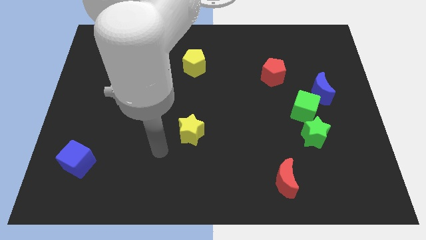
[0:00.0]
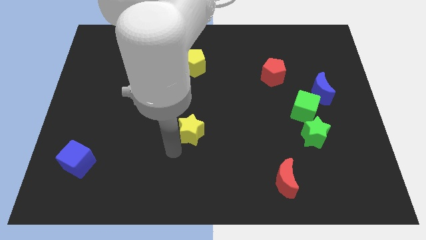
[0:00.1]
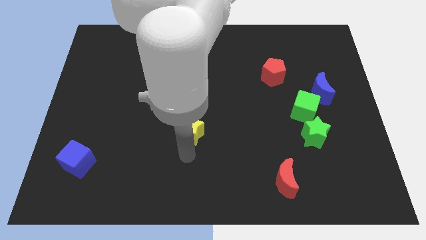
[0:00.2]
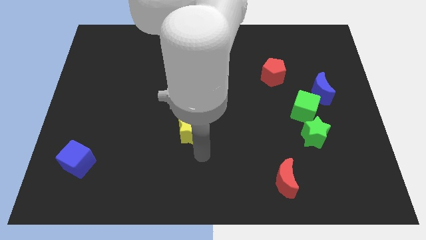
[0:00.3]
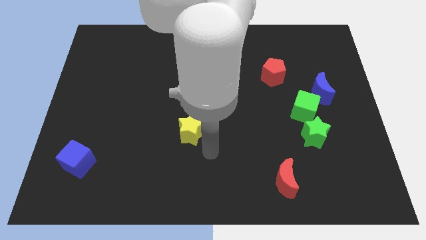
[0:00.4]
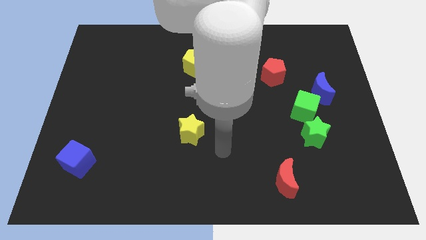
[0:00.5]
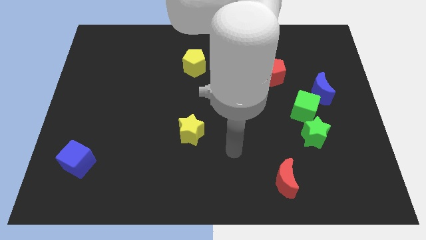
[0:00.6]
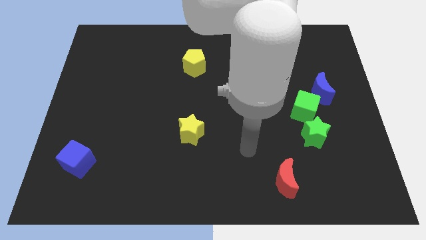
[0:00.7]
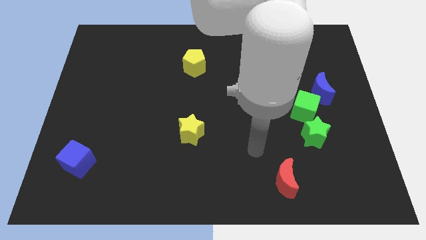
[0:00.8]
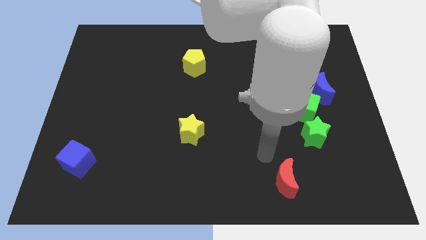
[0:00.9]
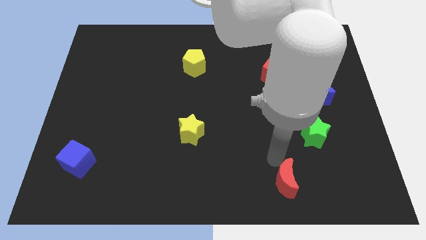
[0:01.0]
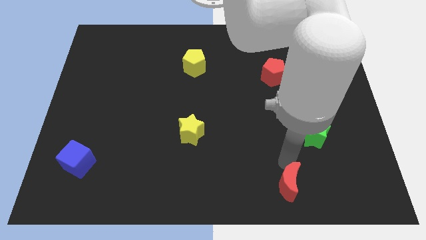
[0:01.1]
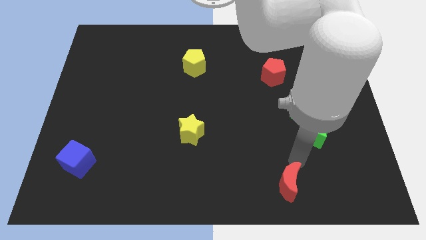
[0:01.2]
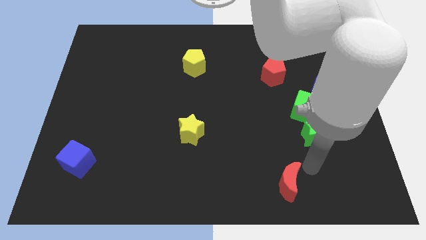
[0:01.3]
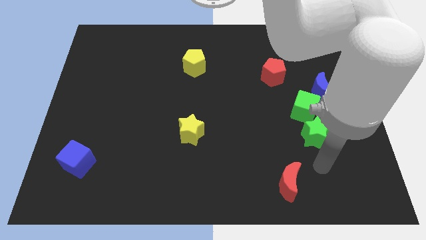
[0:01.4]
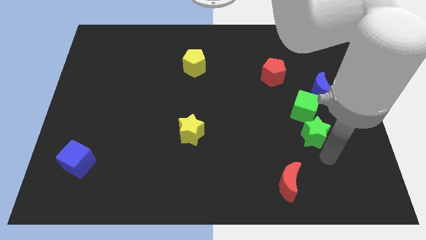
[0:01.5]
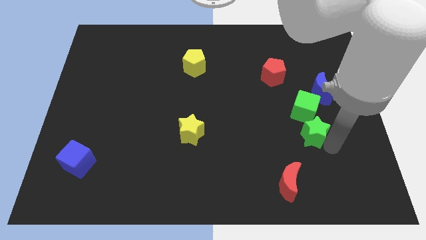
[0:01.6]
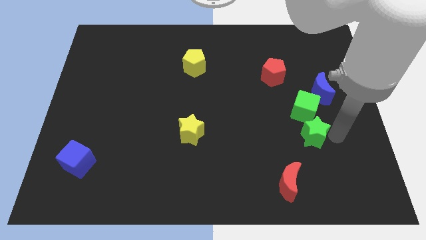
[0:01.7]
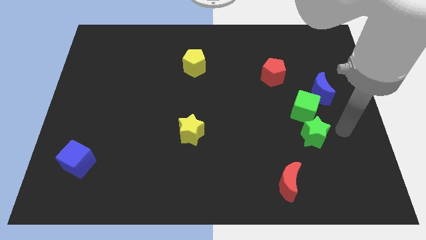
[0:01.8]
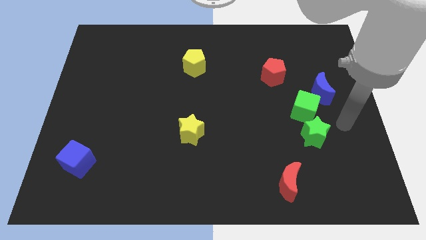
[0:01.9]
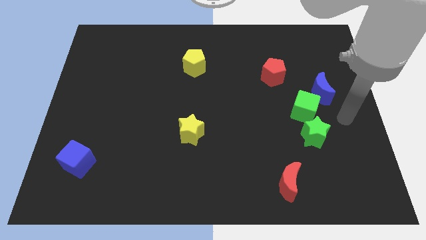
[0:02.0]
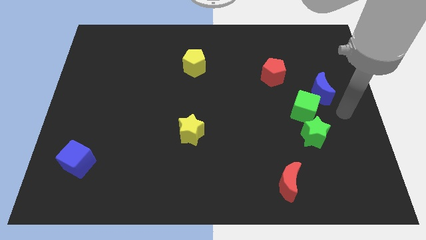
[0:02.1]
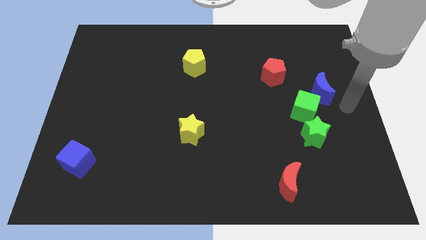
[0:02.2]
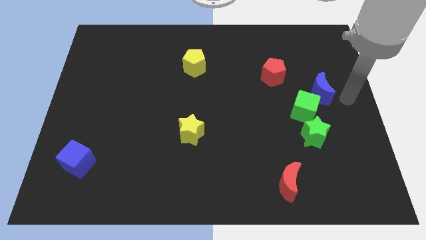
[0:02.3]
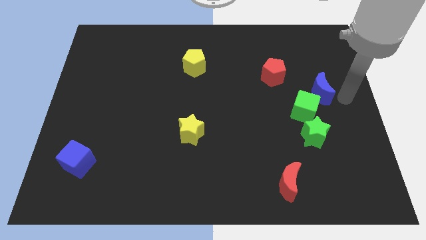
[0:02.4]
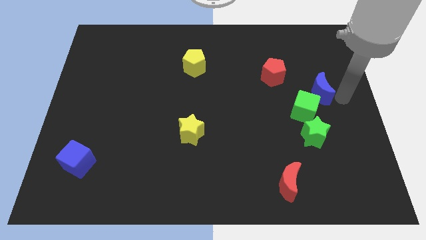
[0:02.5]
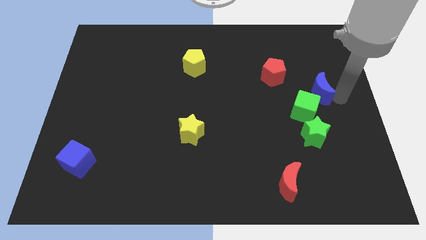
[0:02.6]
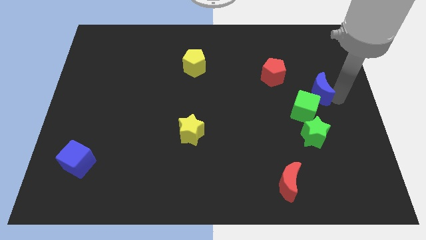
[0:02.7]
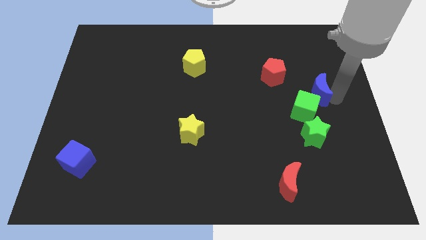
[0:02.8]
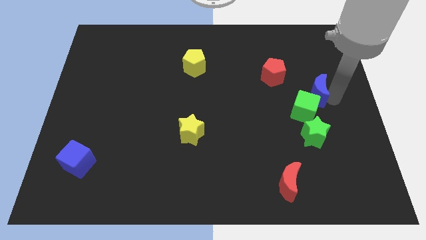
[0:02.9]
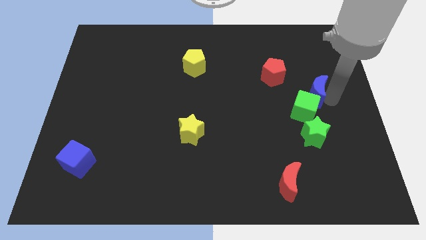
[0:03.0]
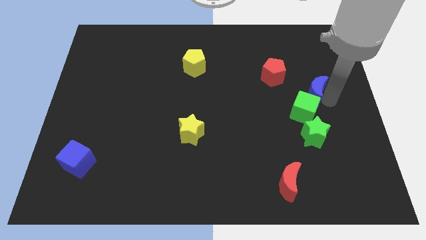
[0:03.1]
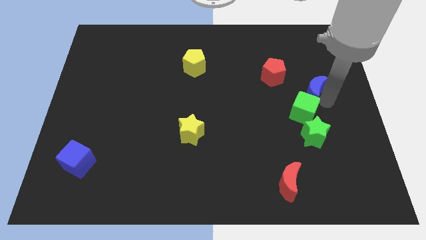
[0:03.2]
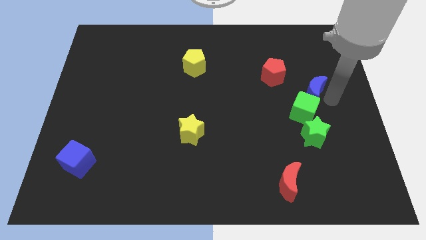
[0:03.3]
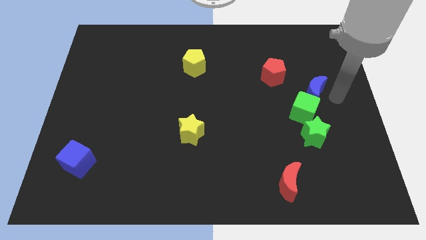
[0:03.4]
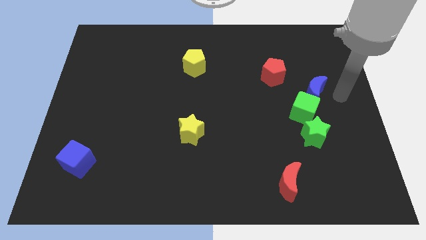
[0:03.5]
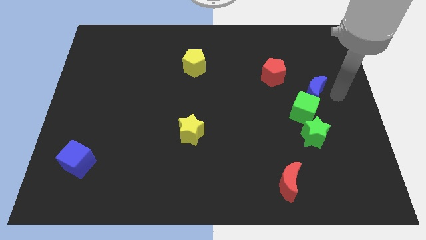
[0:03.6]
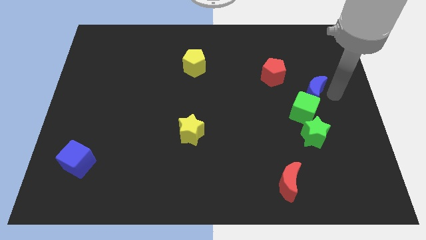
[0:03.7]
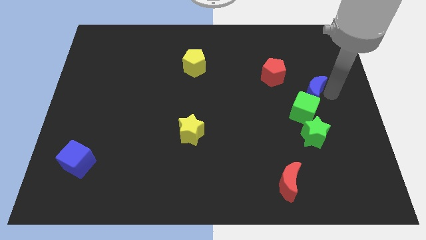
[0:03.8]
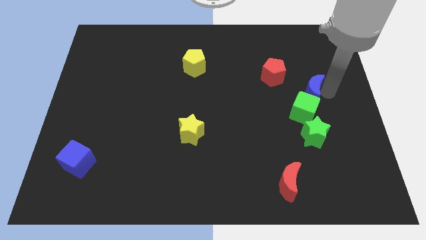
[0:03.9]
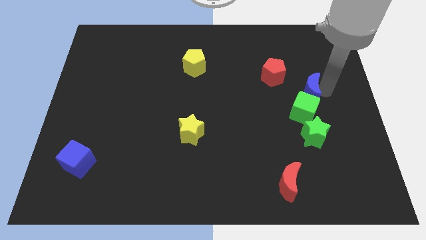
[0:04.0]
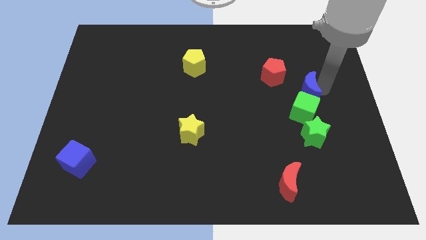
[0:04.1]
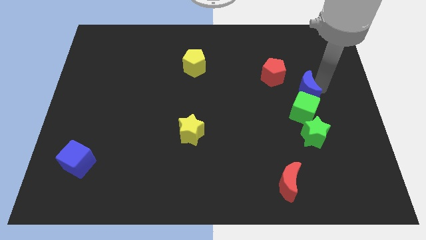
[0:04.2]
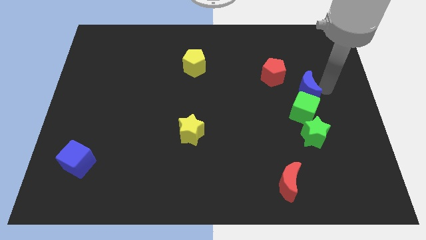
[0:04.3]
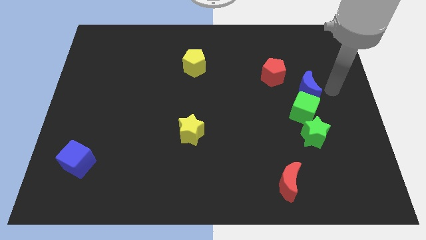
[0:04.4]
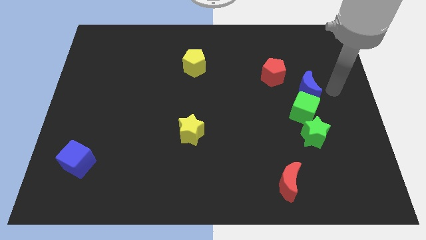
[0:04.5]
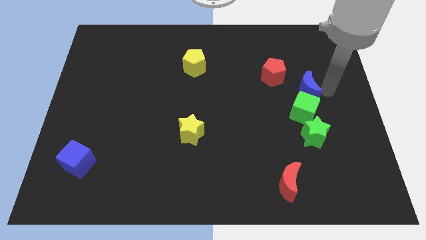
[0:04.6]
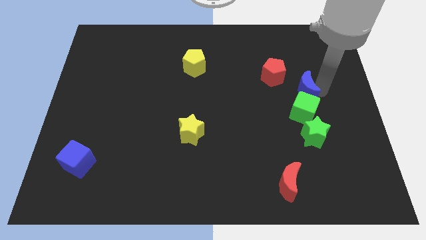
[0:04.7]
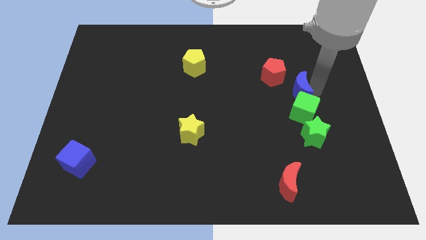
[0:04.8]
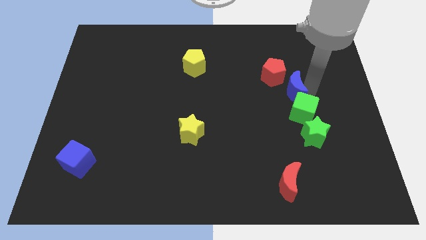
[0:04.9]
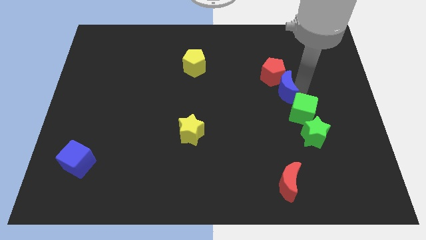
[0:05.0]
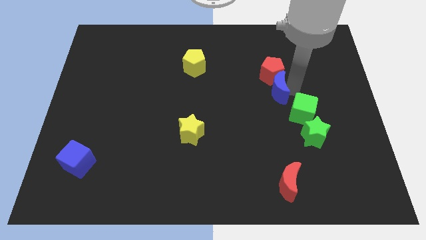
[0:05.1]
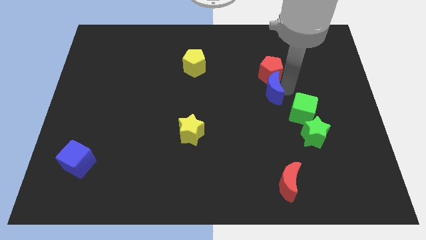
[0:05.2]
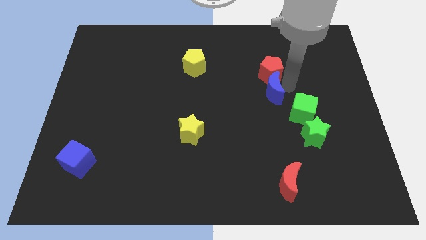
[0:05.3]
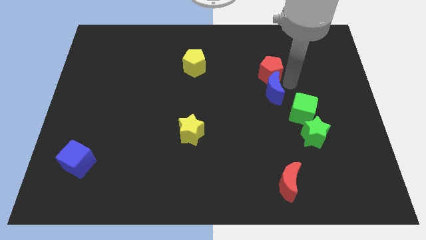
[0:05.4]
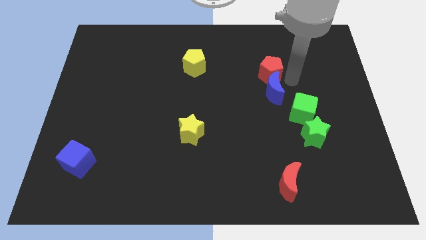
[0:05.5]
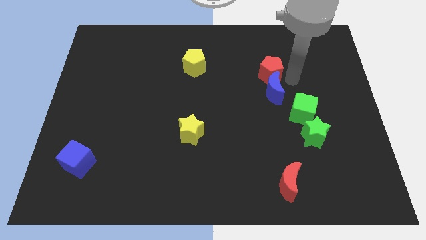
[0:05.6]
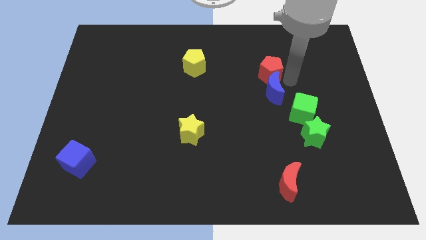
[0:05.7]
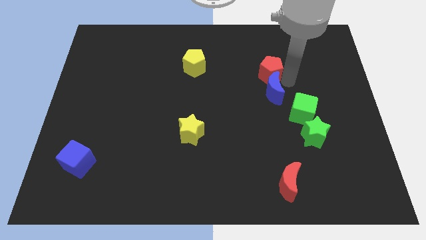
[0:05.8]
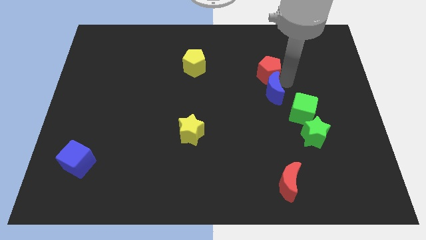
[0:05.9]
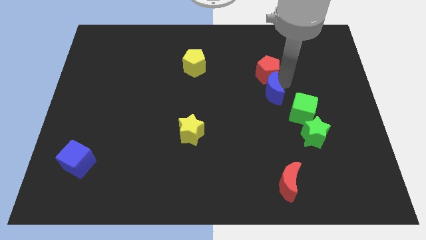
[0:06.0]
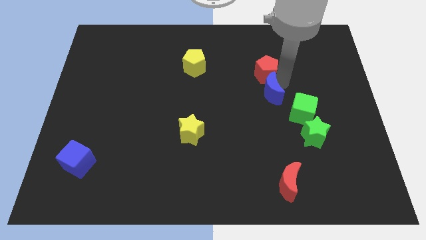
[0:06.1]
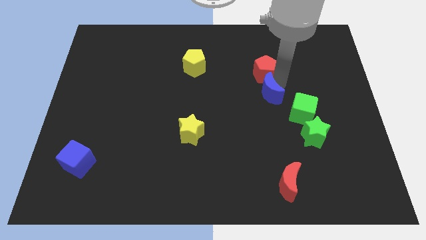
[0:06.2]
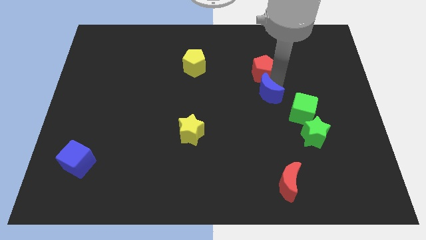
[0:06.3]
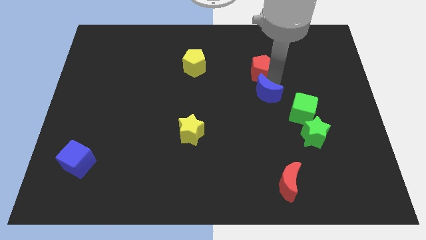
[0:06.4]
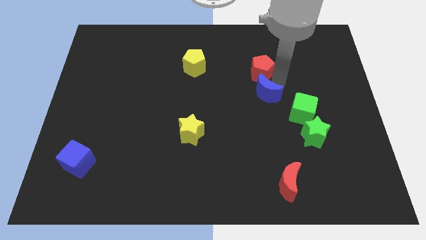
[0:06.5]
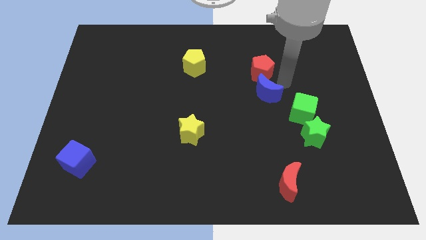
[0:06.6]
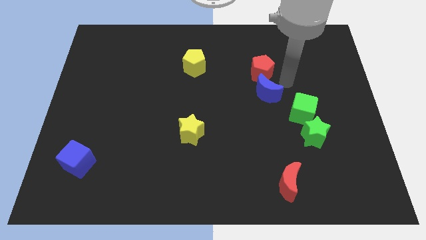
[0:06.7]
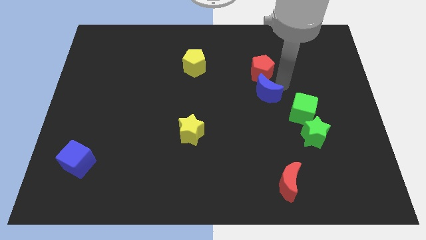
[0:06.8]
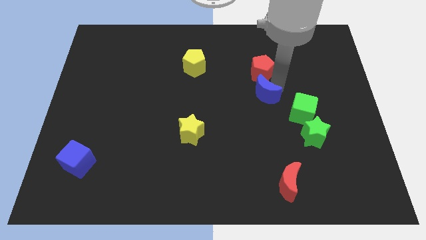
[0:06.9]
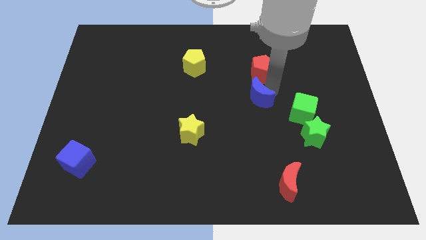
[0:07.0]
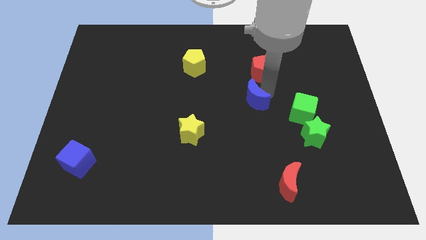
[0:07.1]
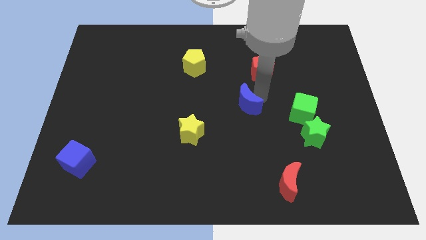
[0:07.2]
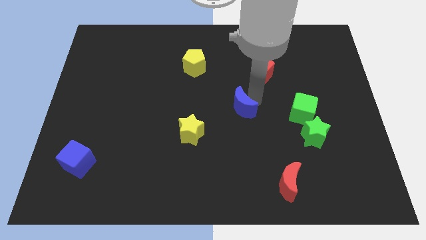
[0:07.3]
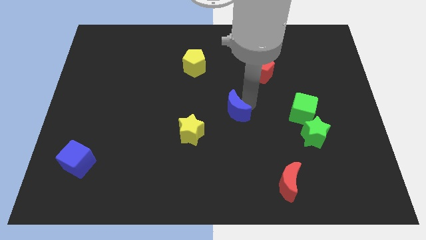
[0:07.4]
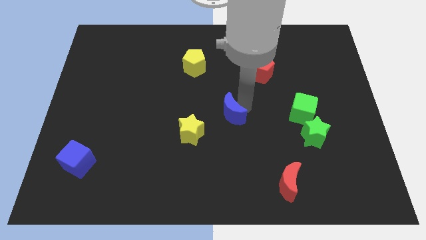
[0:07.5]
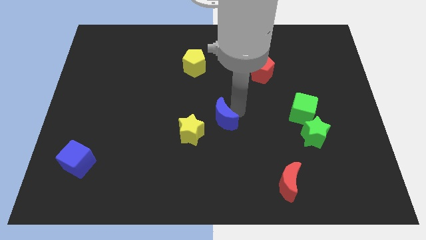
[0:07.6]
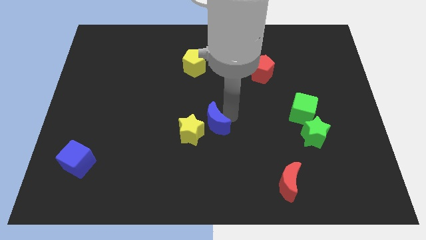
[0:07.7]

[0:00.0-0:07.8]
put the blue moon towards the yellow star
